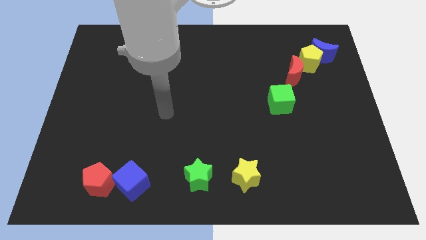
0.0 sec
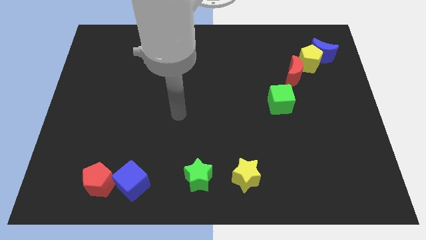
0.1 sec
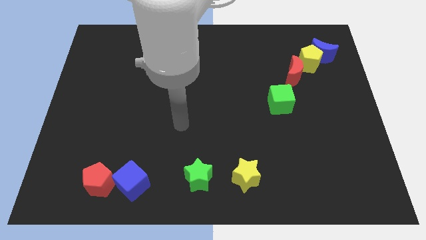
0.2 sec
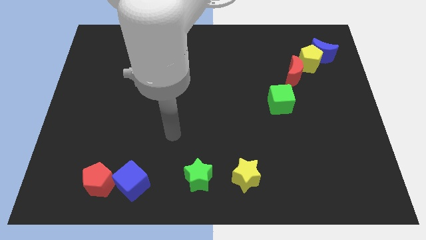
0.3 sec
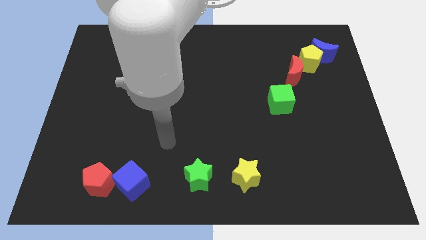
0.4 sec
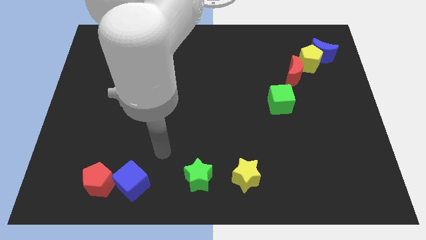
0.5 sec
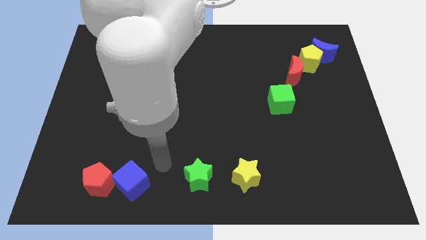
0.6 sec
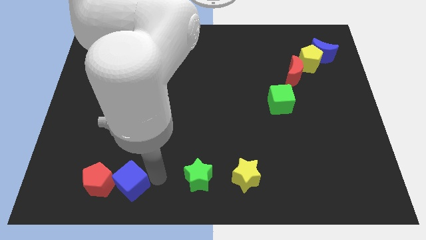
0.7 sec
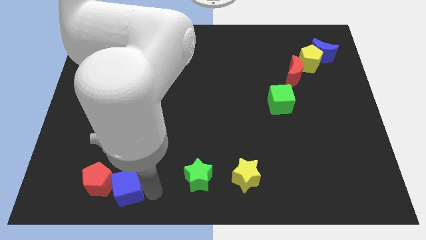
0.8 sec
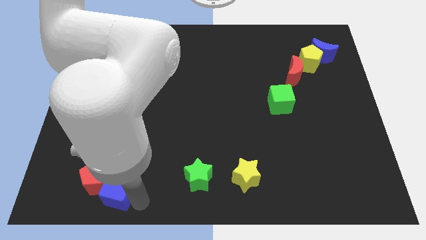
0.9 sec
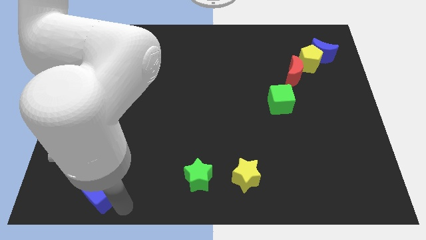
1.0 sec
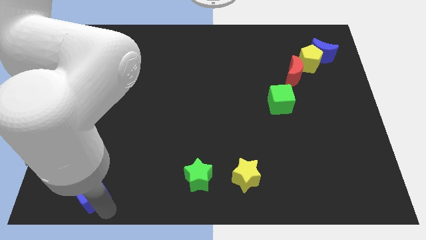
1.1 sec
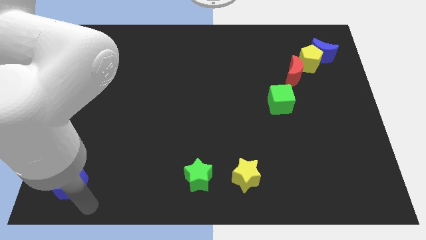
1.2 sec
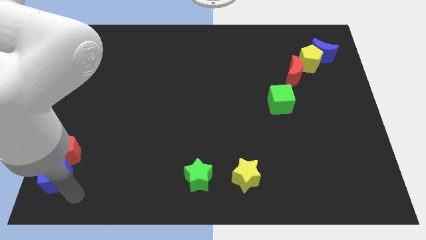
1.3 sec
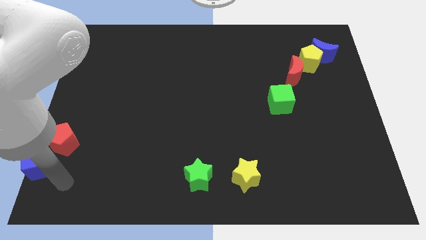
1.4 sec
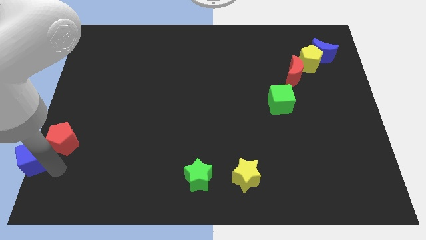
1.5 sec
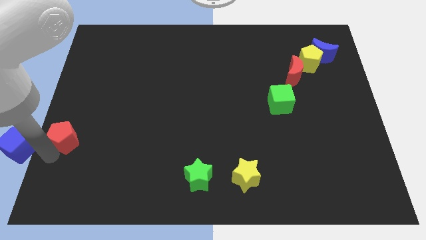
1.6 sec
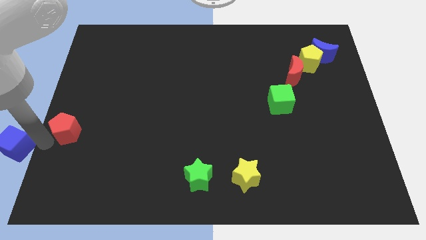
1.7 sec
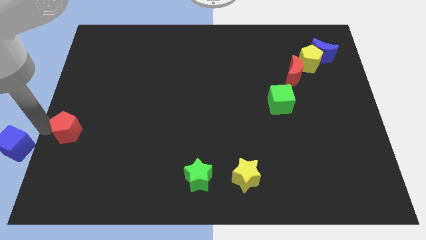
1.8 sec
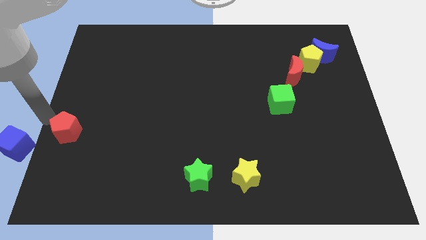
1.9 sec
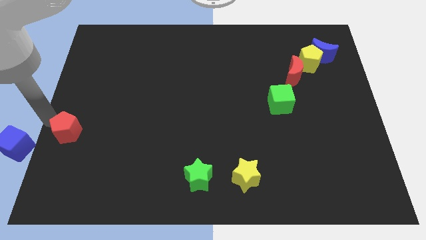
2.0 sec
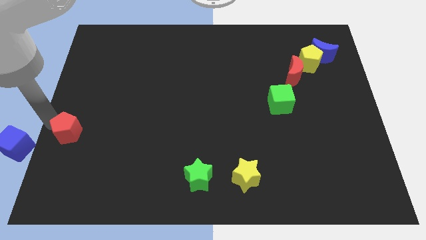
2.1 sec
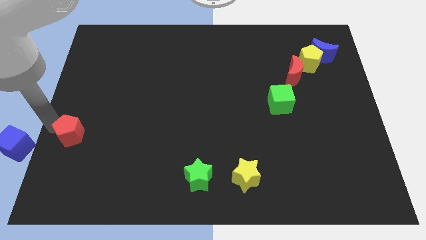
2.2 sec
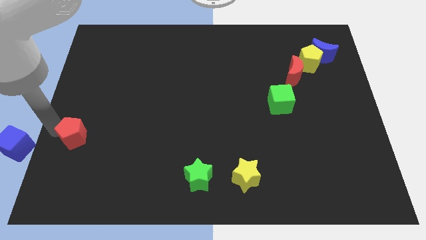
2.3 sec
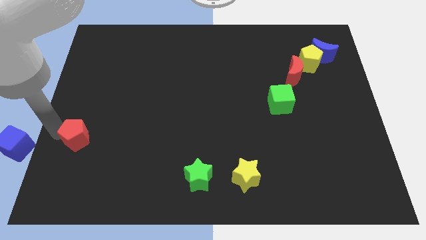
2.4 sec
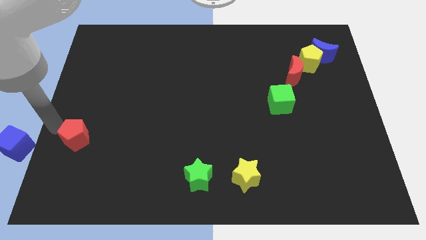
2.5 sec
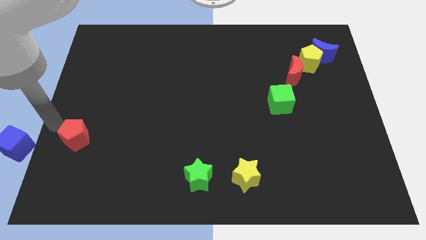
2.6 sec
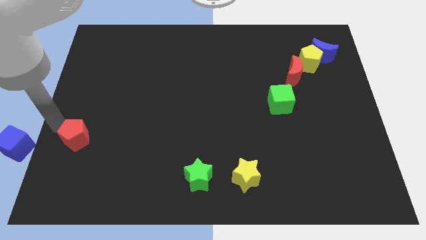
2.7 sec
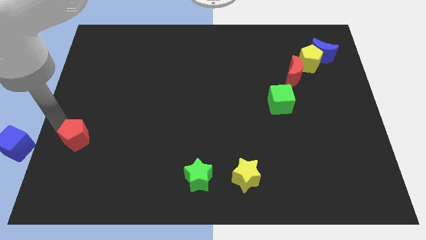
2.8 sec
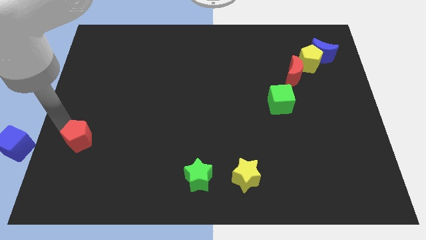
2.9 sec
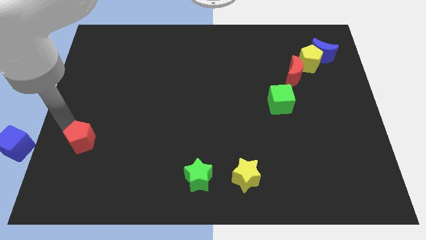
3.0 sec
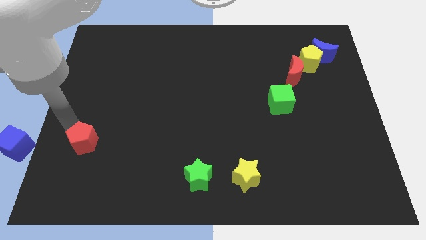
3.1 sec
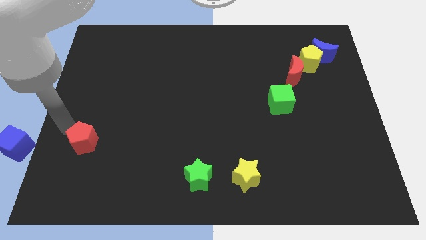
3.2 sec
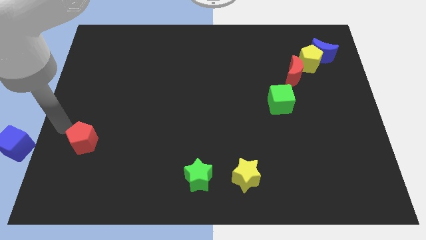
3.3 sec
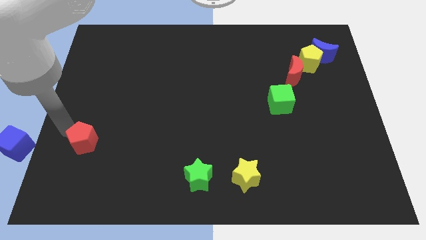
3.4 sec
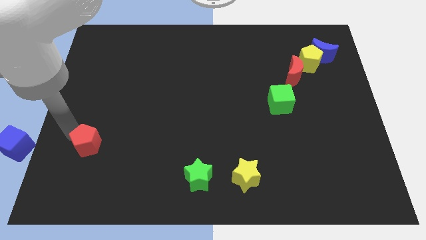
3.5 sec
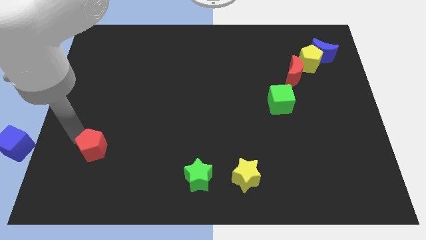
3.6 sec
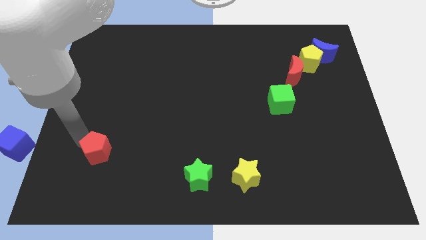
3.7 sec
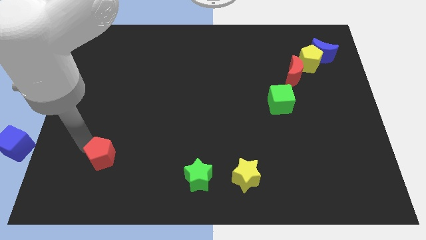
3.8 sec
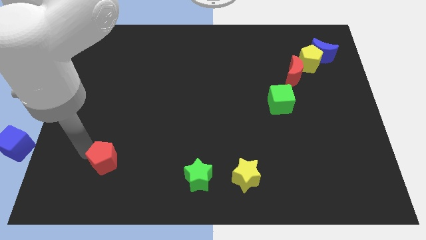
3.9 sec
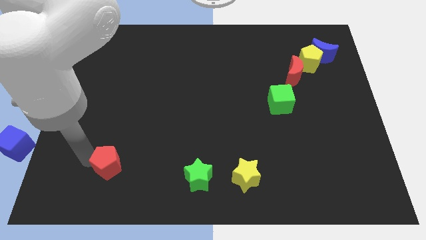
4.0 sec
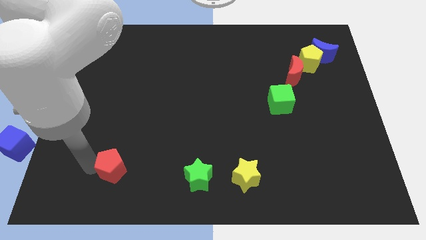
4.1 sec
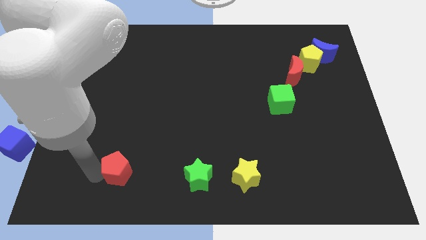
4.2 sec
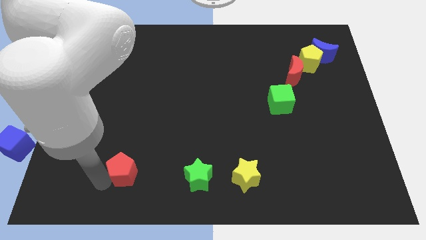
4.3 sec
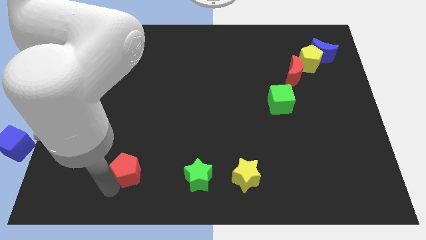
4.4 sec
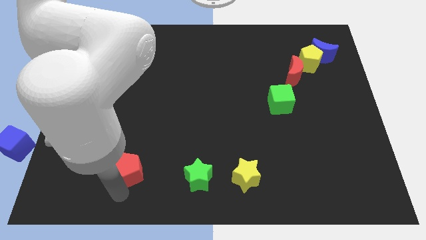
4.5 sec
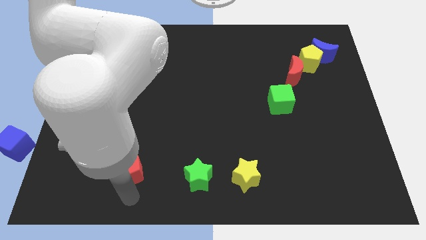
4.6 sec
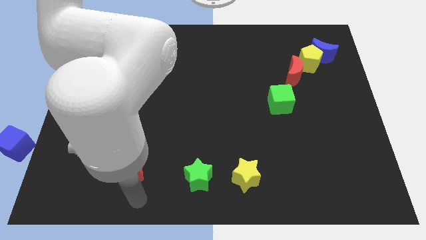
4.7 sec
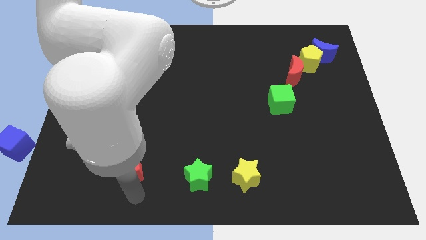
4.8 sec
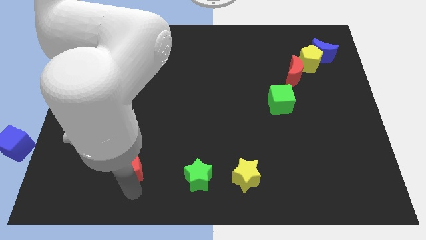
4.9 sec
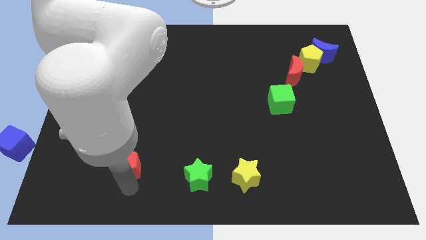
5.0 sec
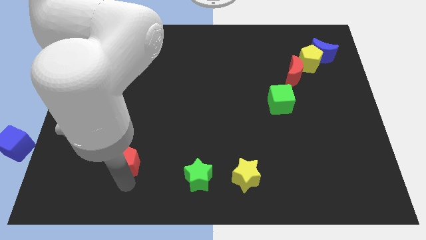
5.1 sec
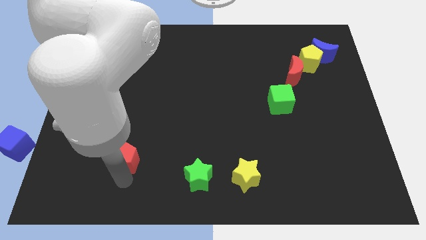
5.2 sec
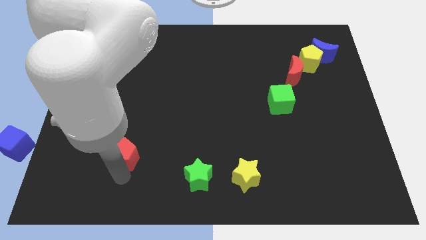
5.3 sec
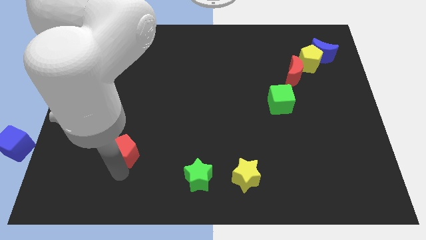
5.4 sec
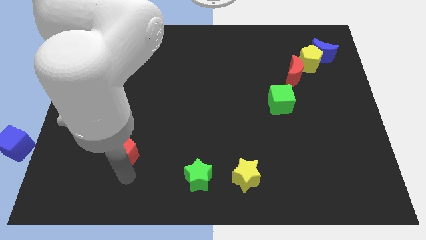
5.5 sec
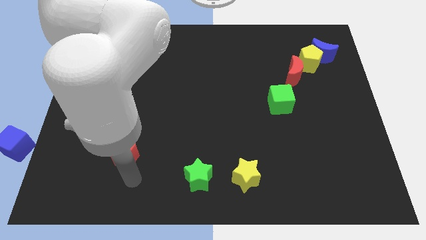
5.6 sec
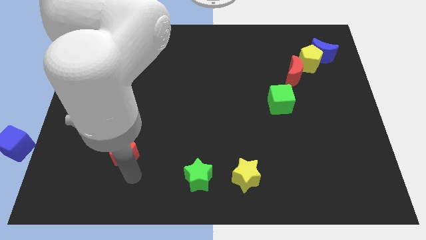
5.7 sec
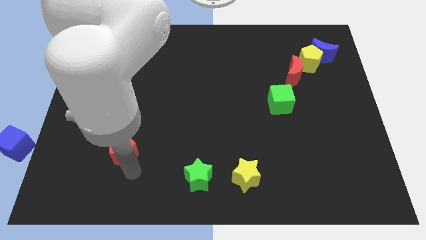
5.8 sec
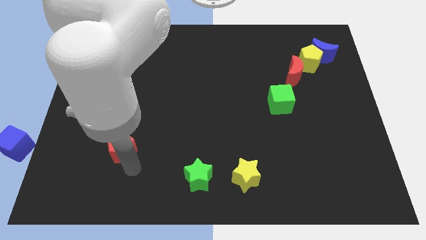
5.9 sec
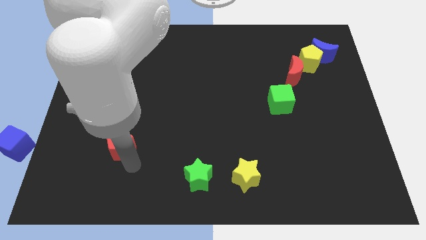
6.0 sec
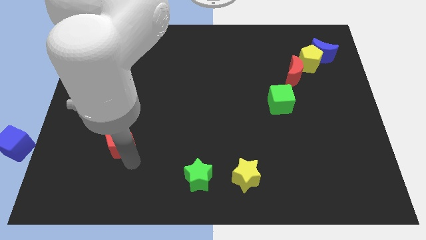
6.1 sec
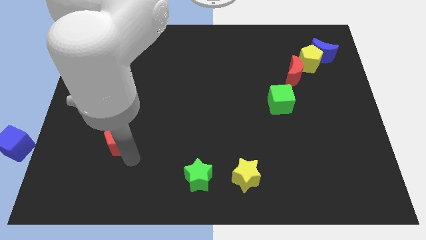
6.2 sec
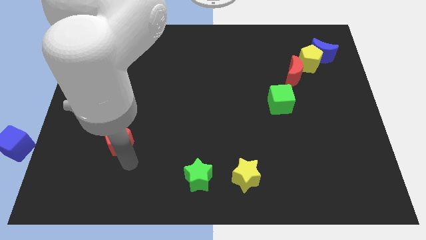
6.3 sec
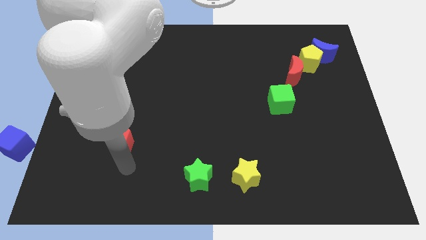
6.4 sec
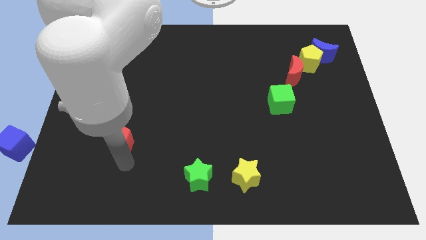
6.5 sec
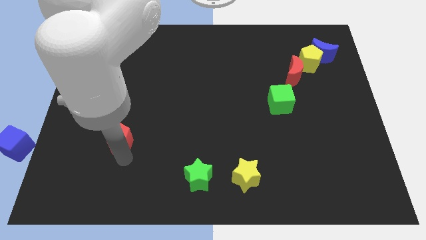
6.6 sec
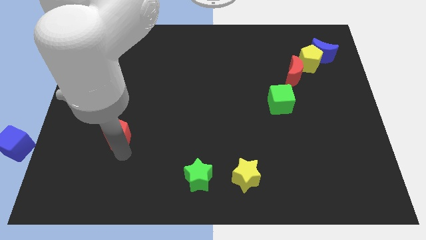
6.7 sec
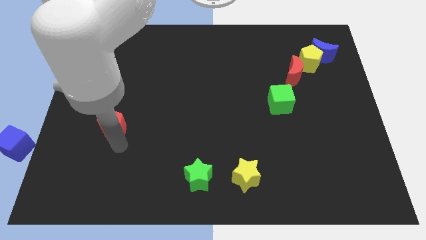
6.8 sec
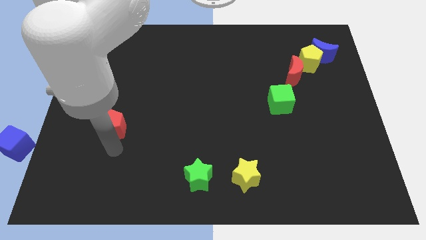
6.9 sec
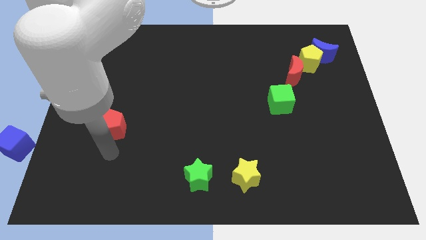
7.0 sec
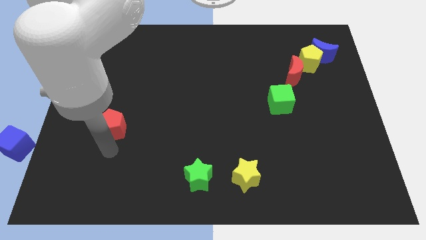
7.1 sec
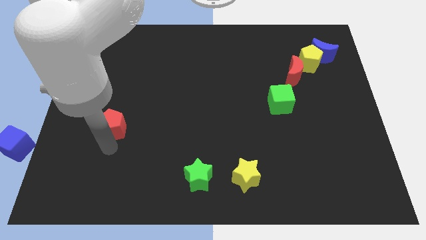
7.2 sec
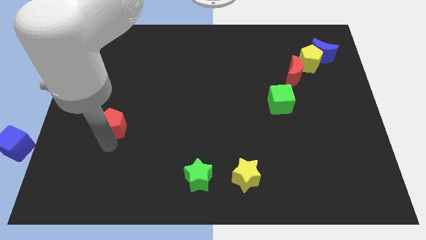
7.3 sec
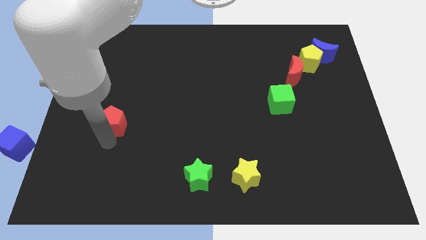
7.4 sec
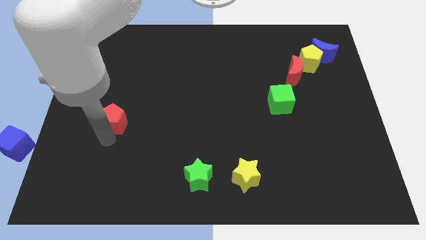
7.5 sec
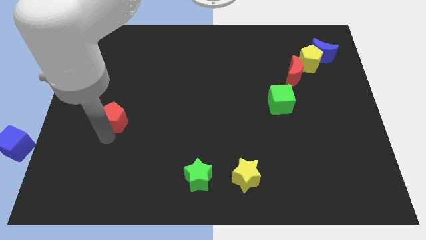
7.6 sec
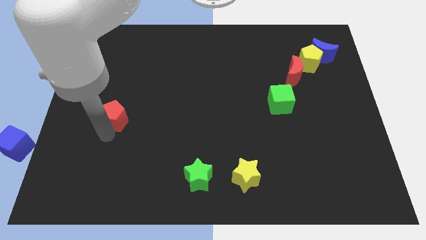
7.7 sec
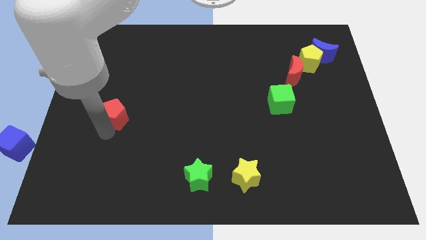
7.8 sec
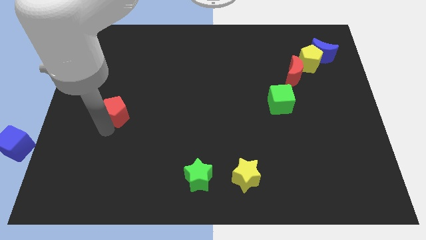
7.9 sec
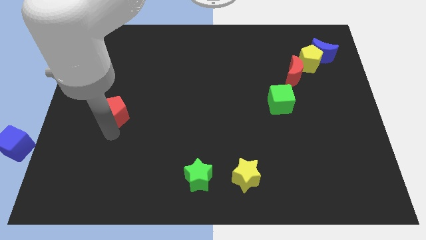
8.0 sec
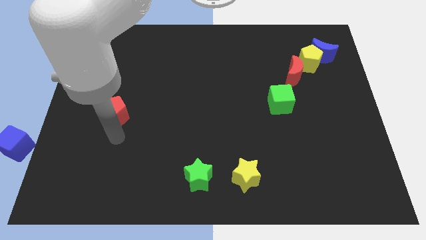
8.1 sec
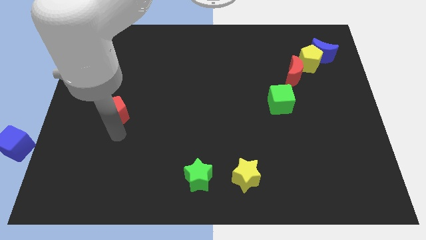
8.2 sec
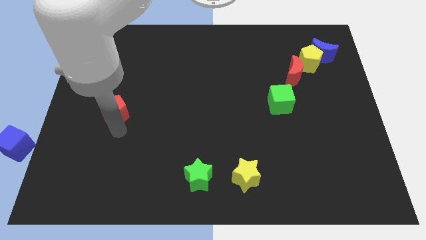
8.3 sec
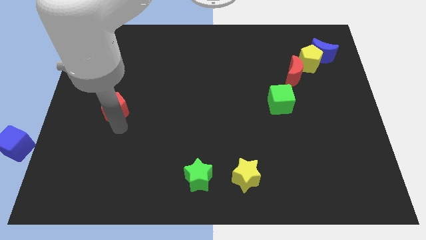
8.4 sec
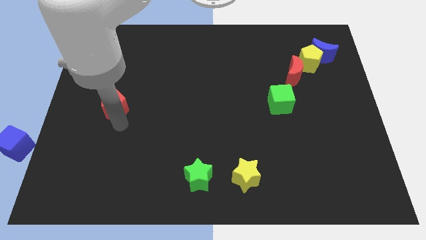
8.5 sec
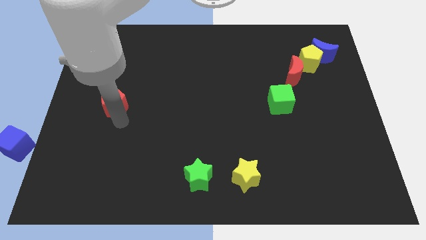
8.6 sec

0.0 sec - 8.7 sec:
move the red pentagon upwards
